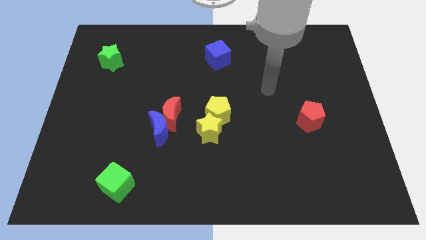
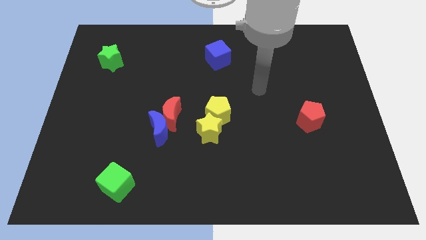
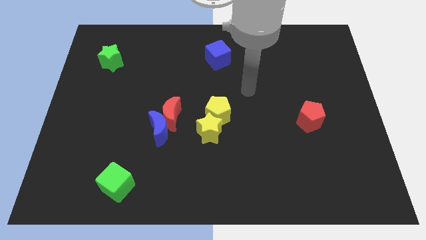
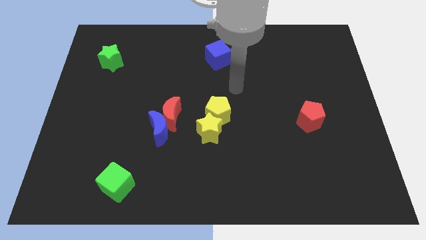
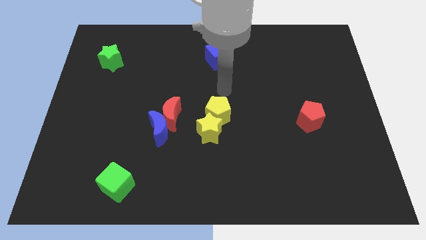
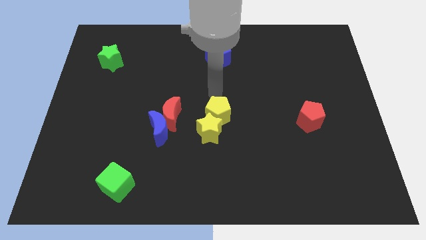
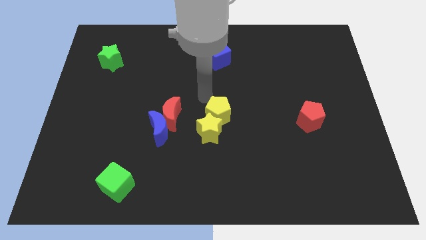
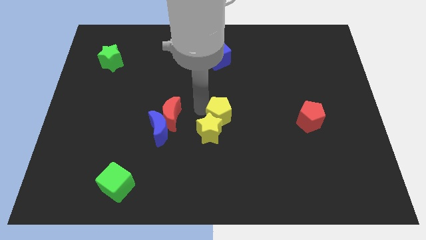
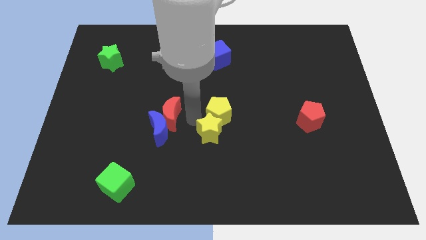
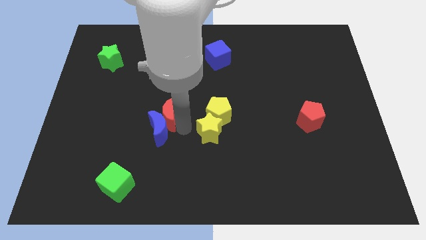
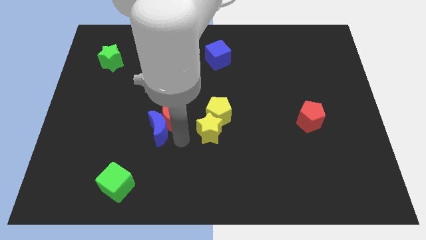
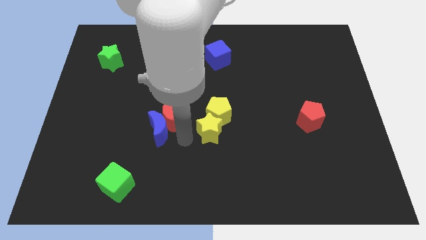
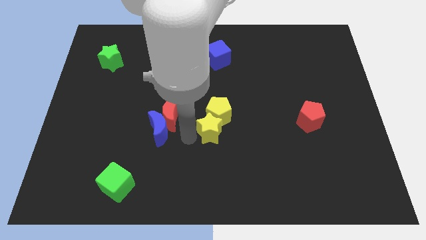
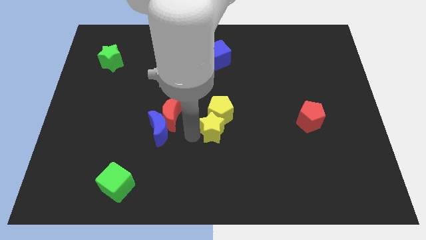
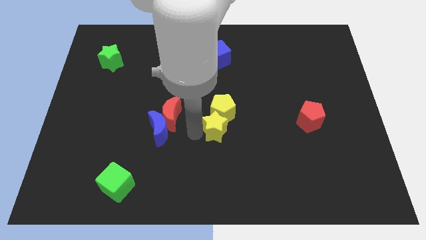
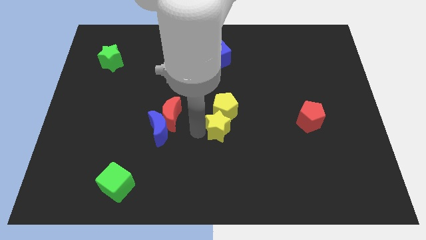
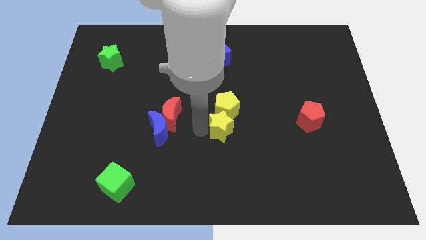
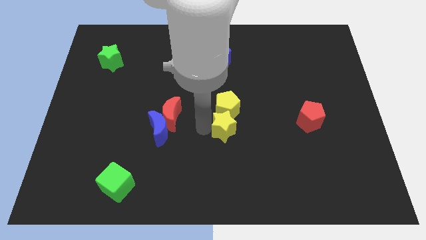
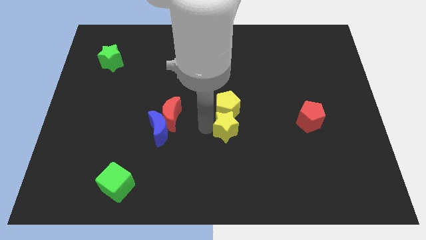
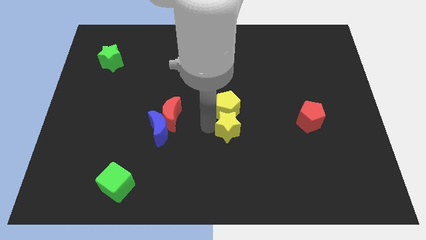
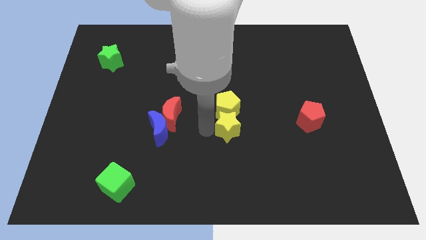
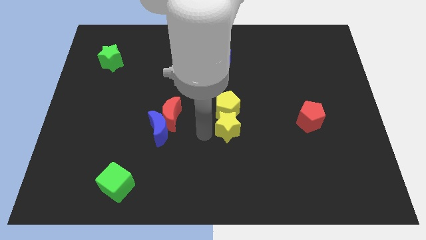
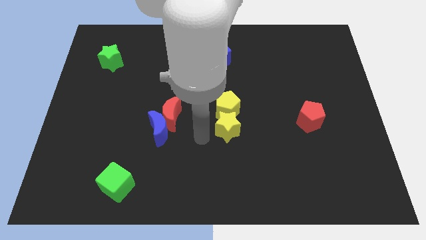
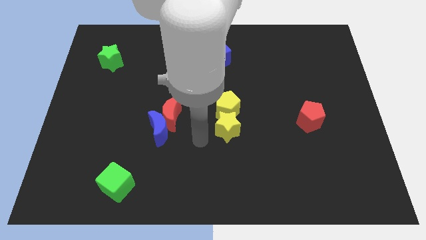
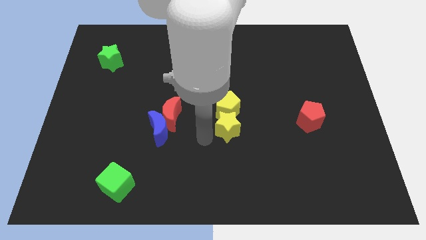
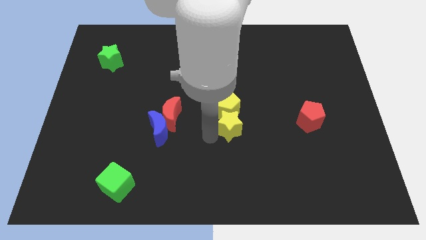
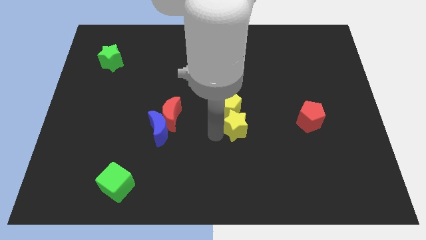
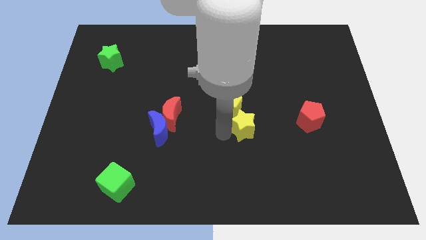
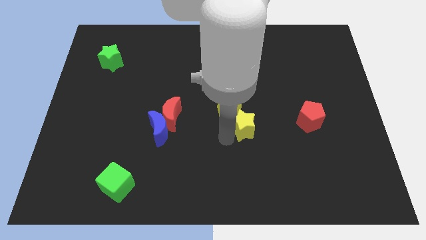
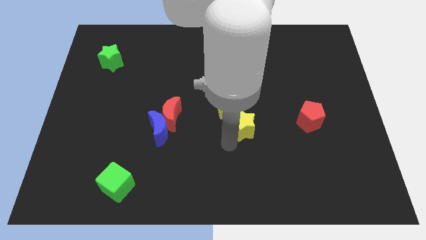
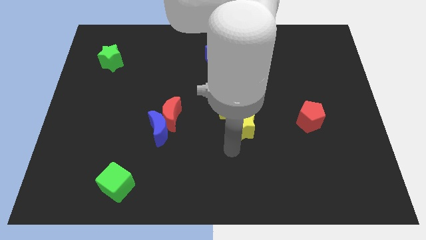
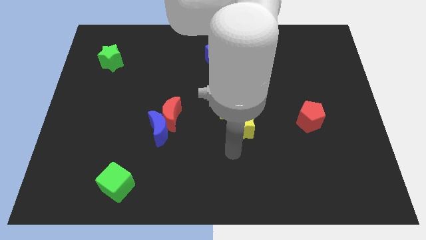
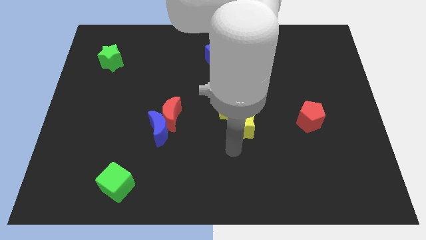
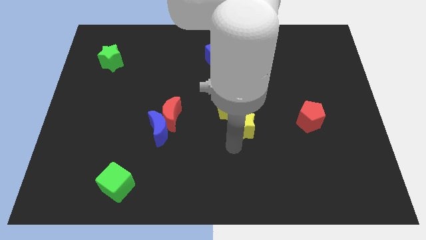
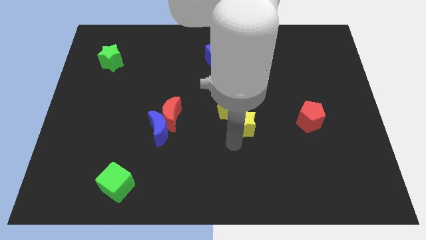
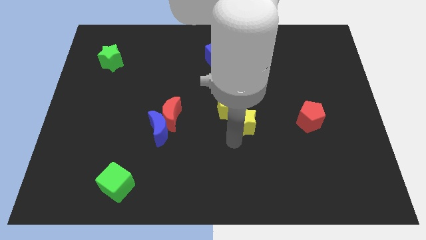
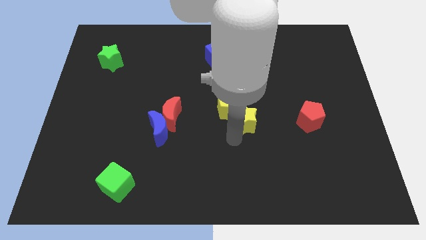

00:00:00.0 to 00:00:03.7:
push the yellow star diagonally up and to the right a bit

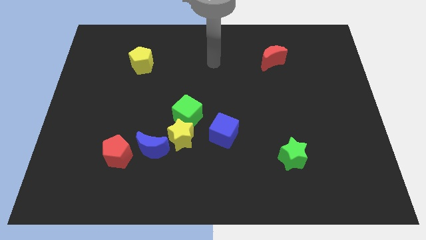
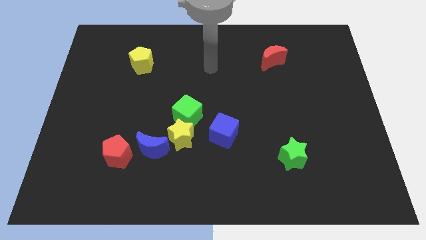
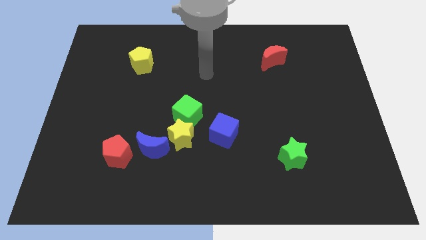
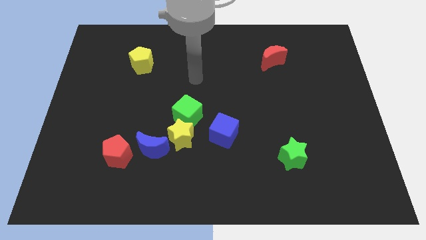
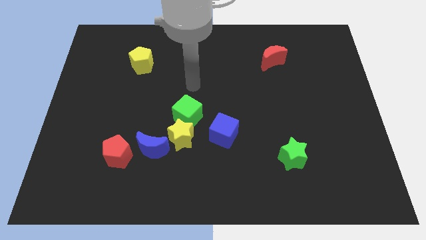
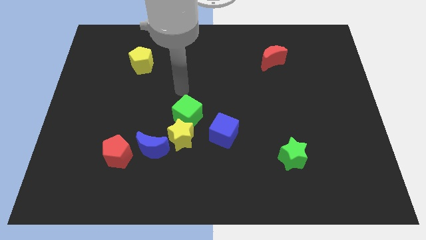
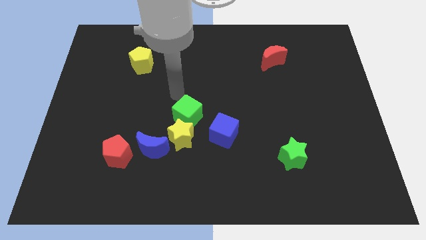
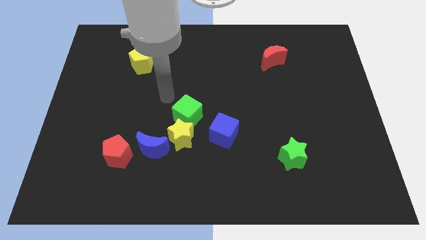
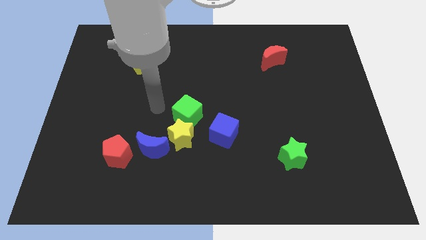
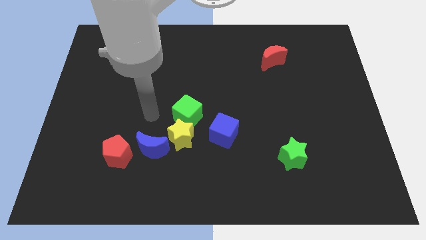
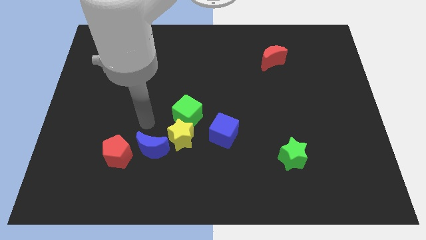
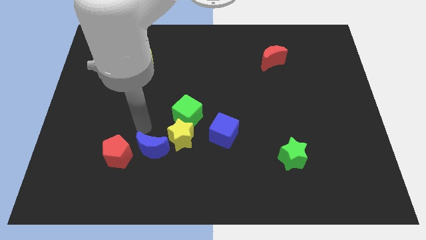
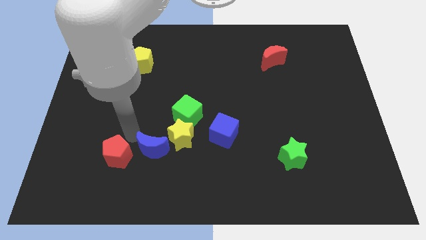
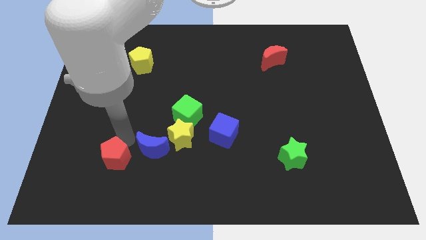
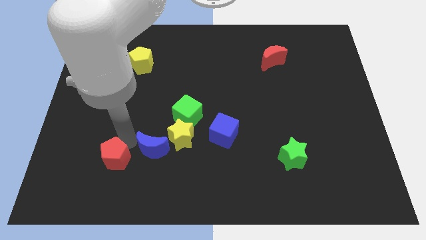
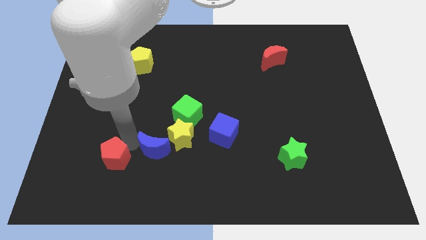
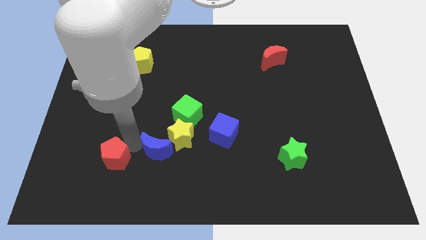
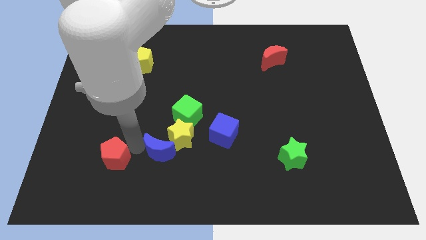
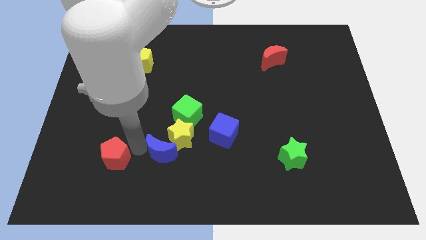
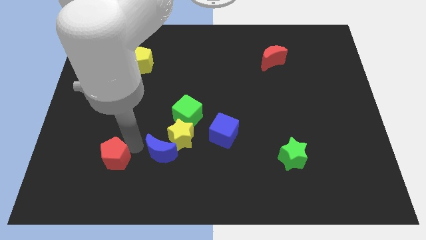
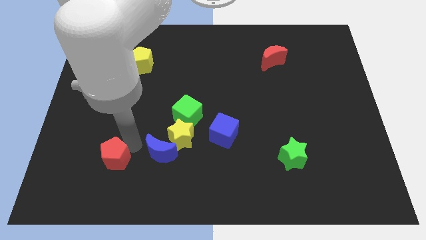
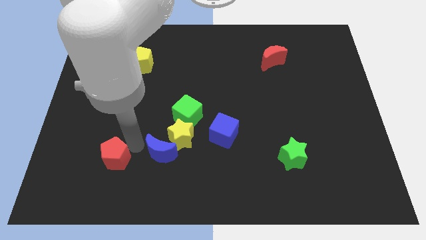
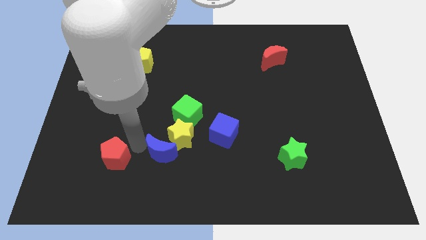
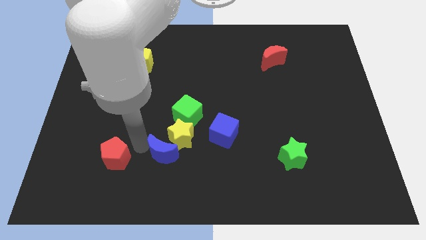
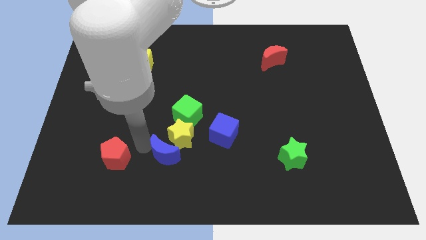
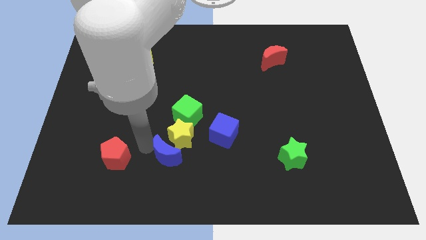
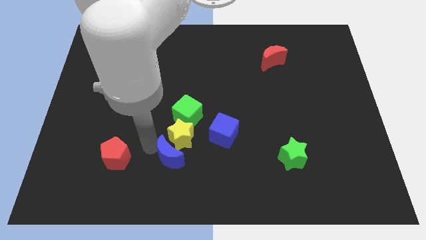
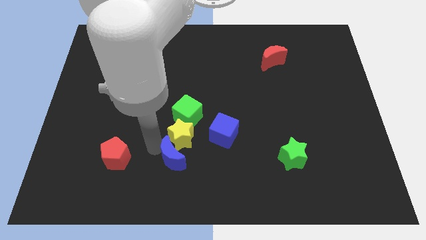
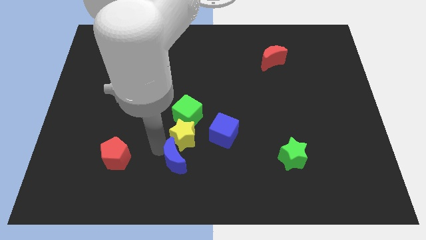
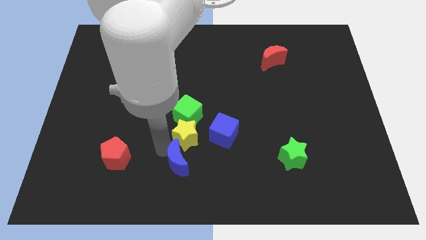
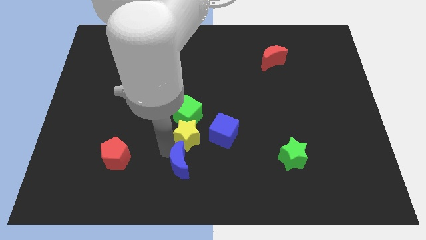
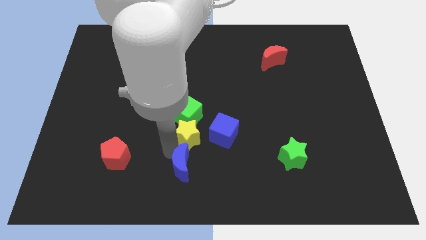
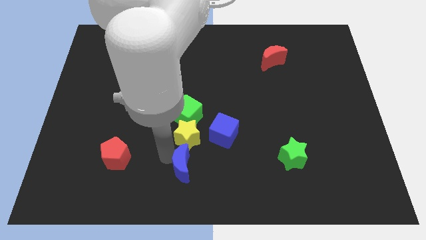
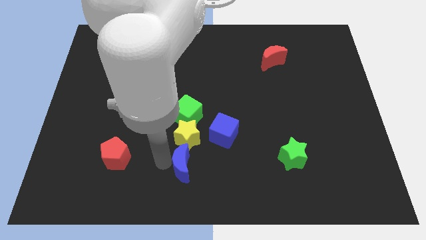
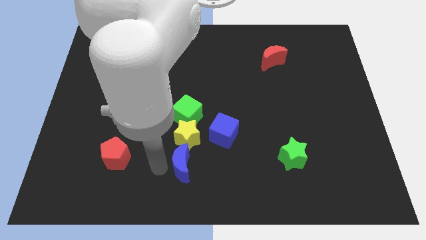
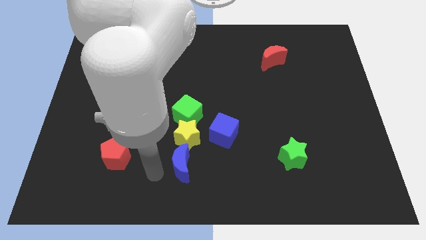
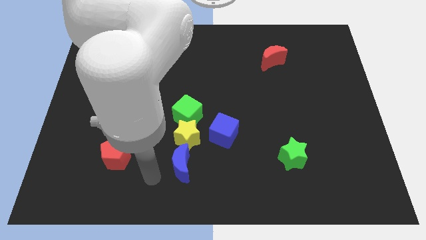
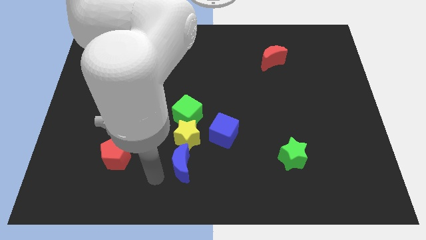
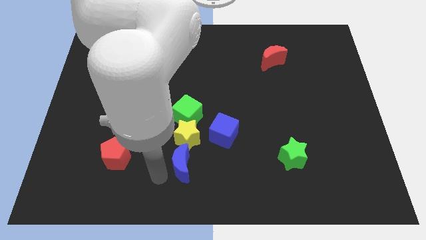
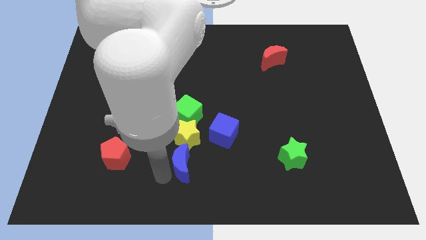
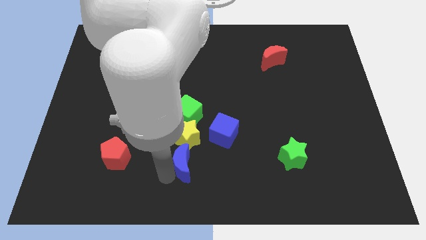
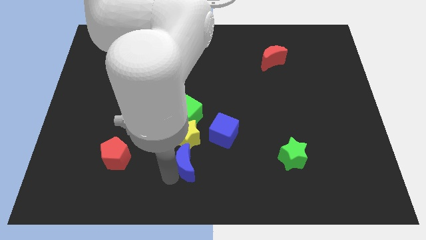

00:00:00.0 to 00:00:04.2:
slightly move the blue moon right
